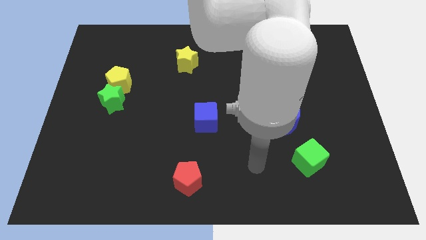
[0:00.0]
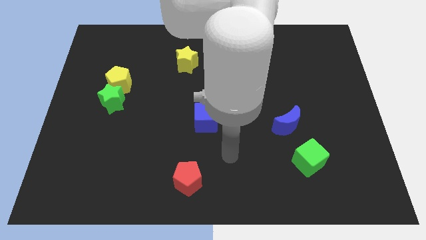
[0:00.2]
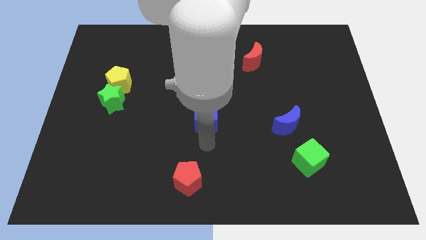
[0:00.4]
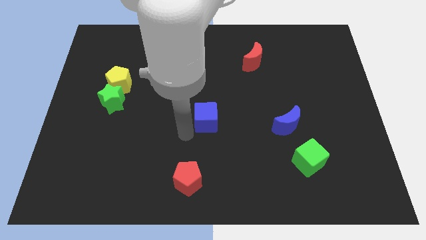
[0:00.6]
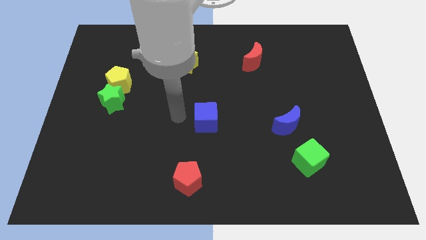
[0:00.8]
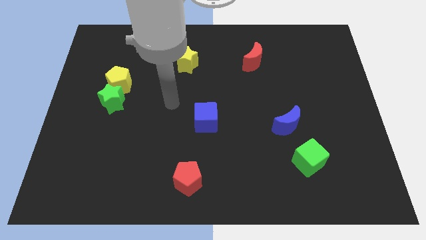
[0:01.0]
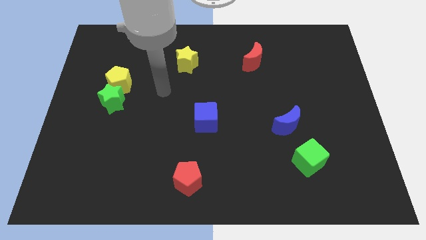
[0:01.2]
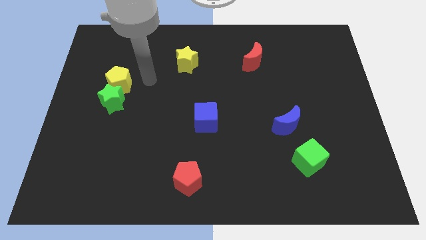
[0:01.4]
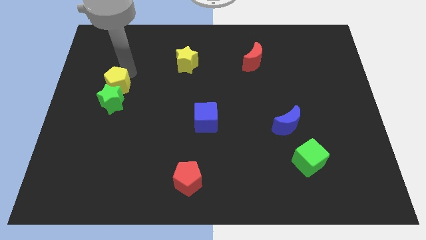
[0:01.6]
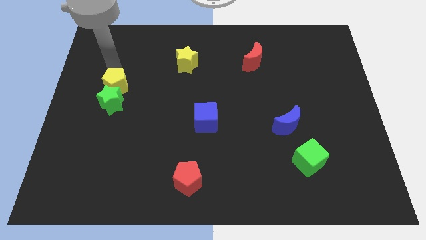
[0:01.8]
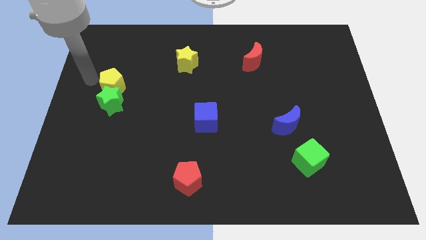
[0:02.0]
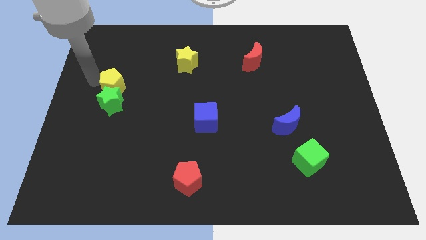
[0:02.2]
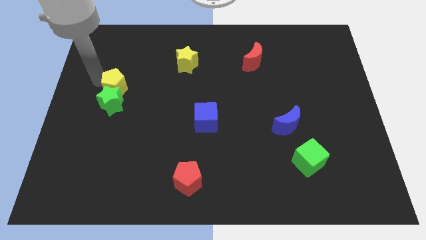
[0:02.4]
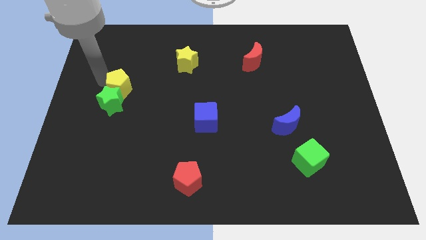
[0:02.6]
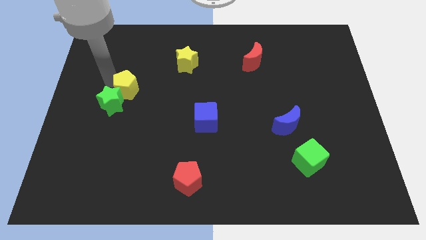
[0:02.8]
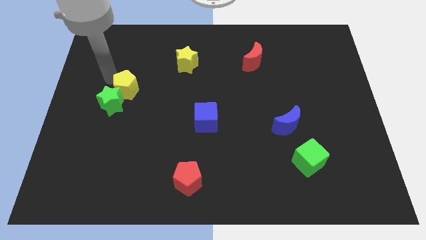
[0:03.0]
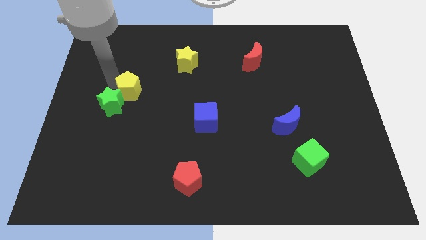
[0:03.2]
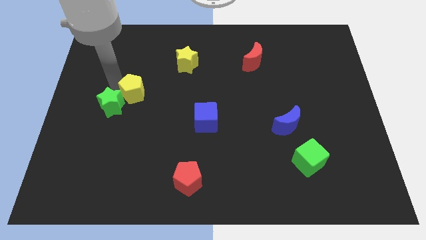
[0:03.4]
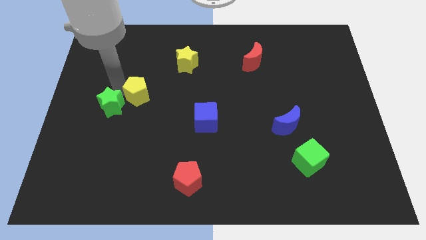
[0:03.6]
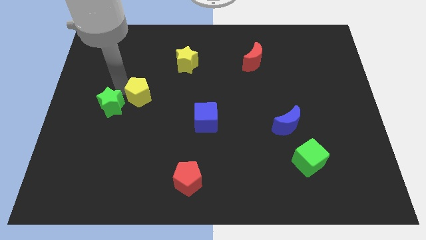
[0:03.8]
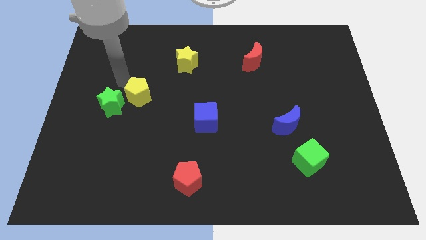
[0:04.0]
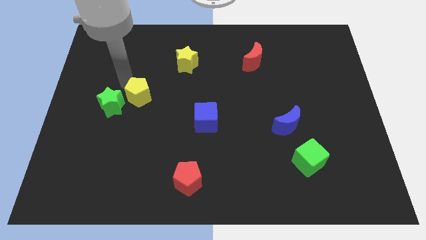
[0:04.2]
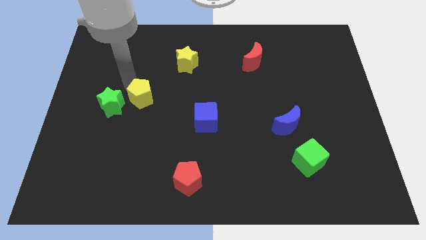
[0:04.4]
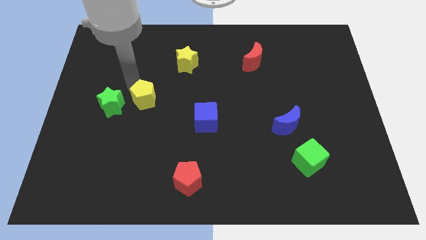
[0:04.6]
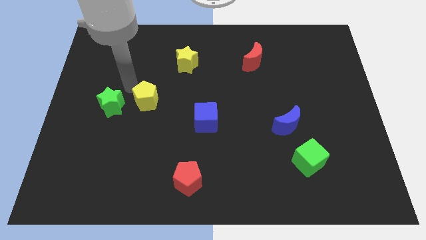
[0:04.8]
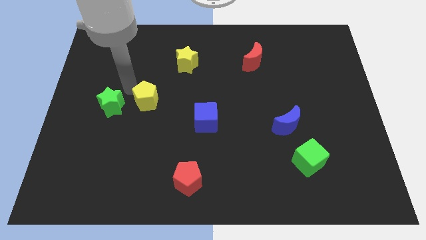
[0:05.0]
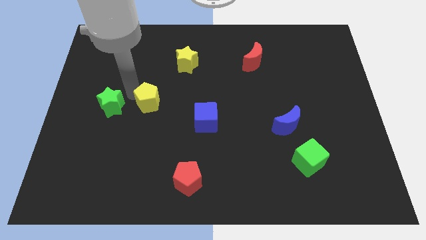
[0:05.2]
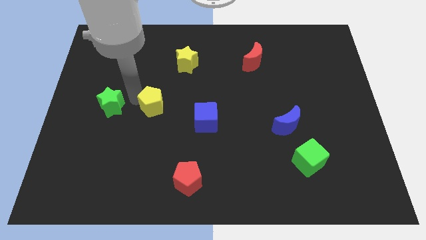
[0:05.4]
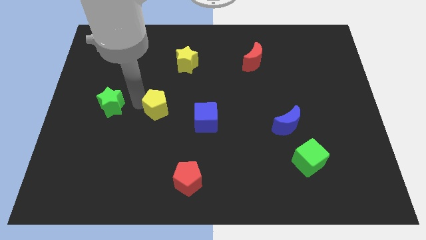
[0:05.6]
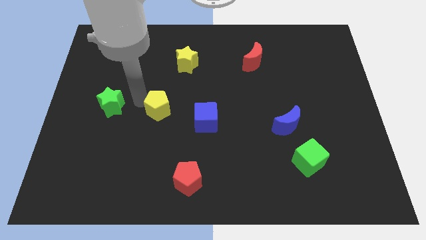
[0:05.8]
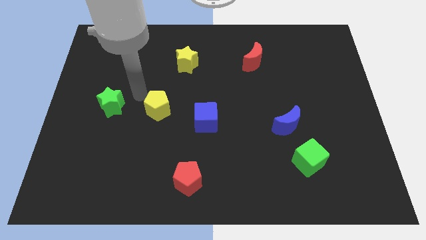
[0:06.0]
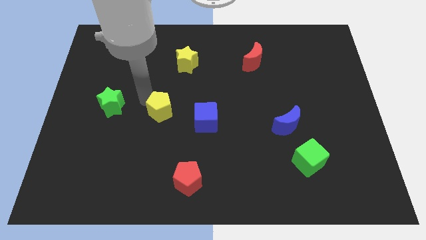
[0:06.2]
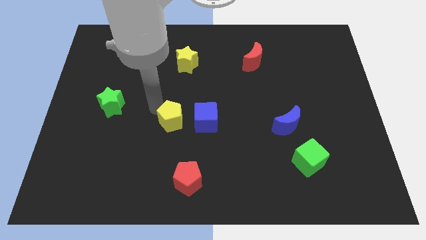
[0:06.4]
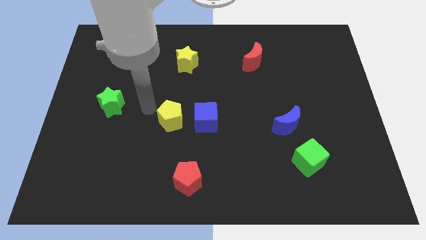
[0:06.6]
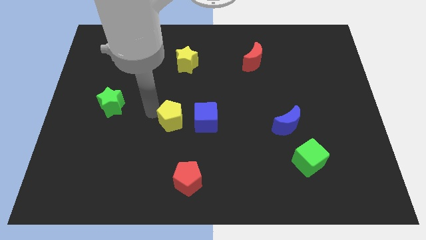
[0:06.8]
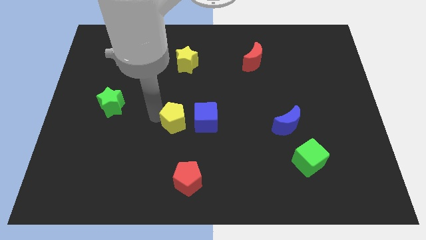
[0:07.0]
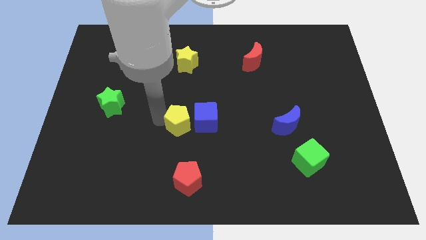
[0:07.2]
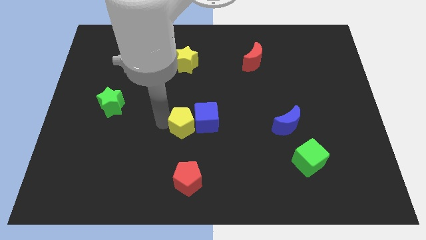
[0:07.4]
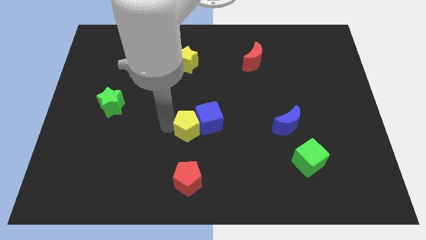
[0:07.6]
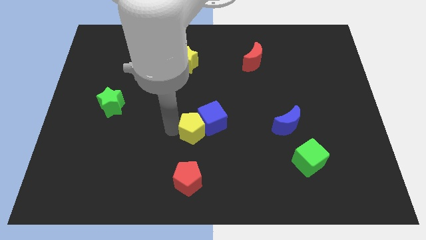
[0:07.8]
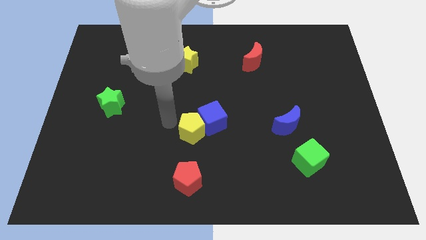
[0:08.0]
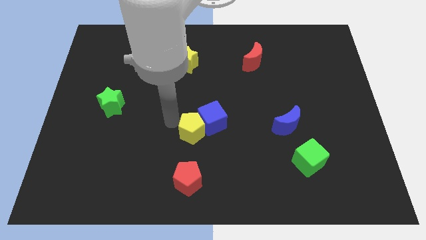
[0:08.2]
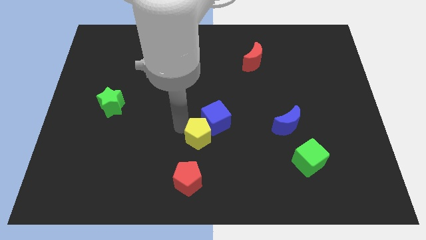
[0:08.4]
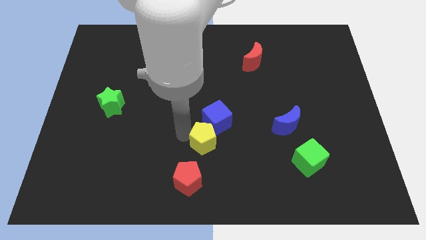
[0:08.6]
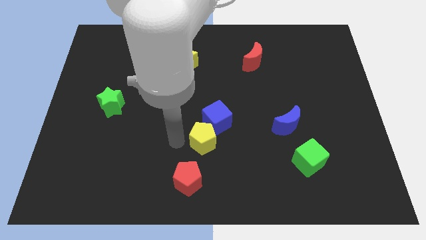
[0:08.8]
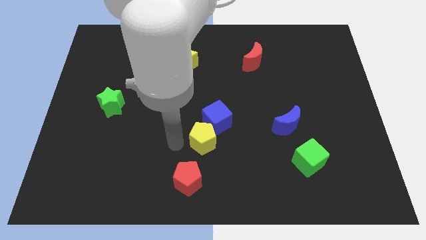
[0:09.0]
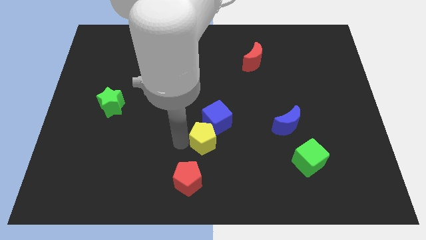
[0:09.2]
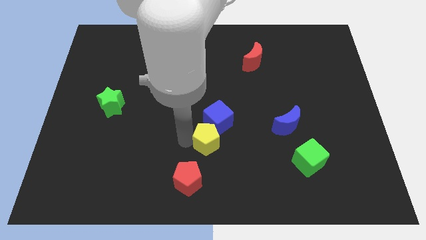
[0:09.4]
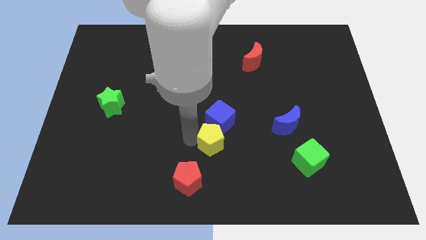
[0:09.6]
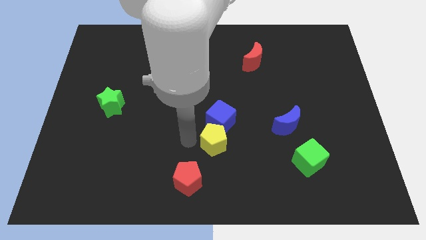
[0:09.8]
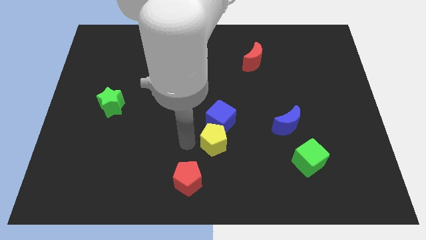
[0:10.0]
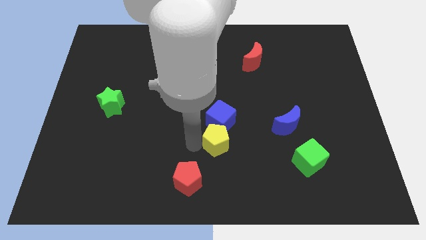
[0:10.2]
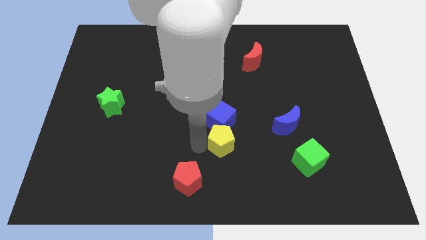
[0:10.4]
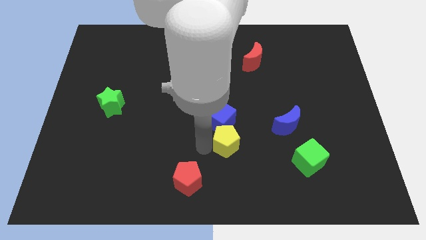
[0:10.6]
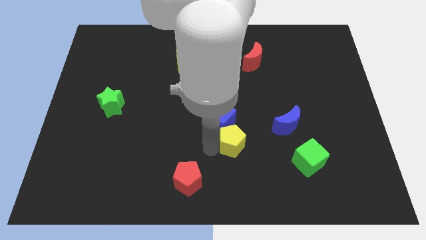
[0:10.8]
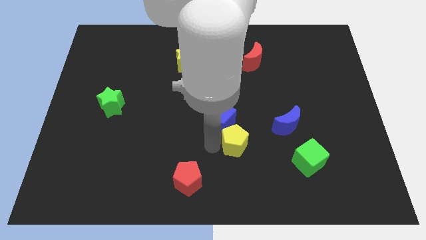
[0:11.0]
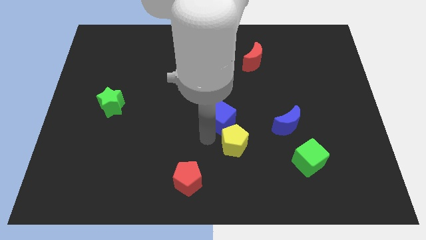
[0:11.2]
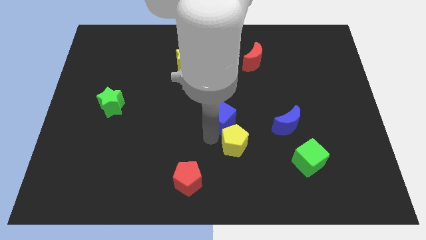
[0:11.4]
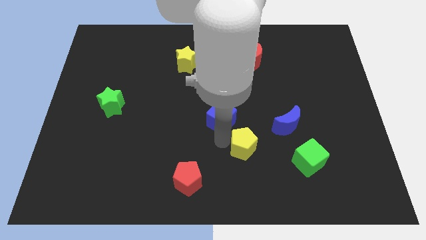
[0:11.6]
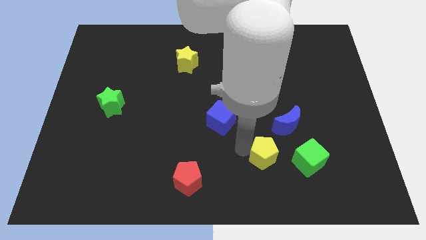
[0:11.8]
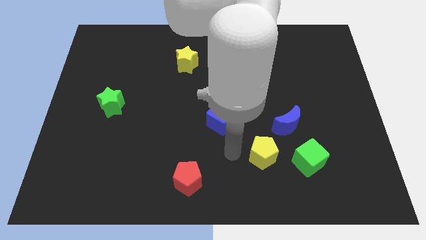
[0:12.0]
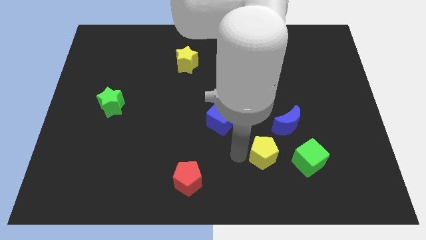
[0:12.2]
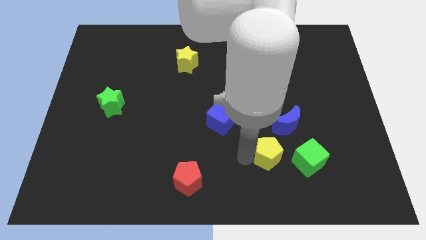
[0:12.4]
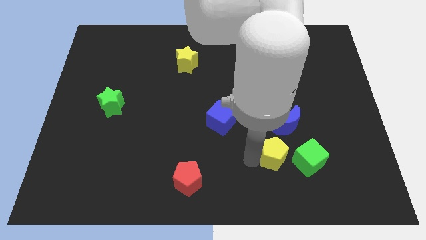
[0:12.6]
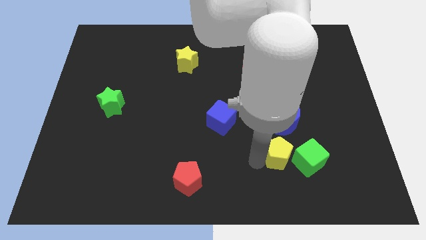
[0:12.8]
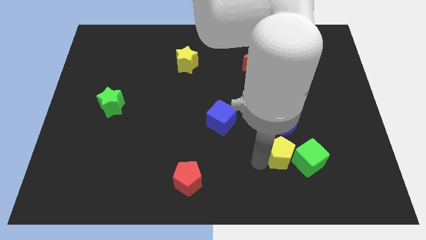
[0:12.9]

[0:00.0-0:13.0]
slide the yellow pentagon close to the green cube

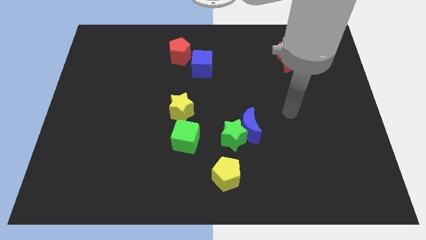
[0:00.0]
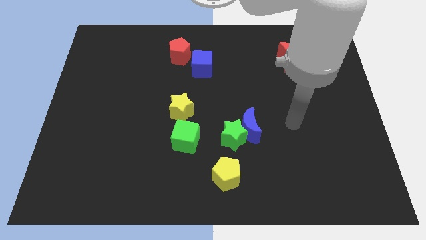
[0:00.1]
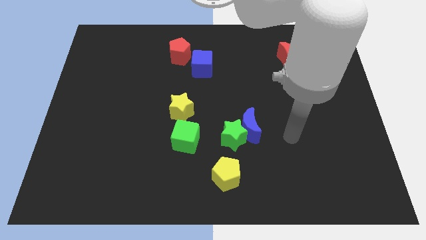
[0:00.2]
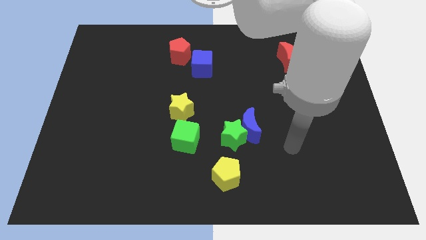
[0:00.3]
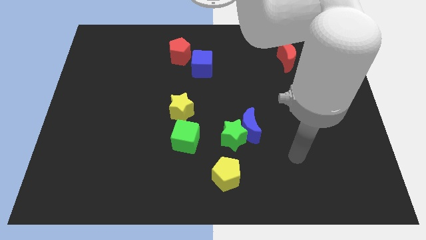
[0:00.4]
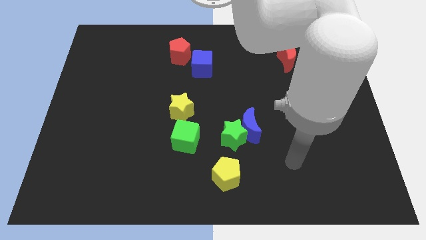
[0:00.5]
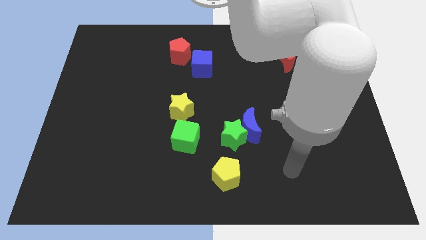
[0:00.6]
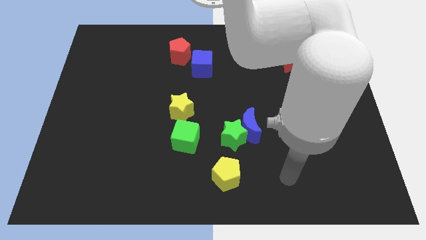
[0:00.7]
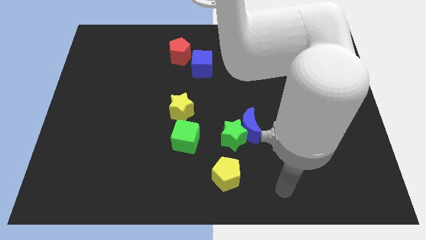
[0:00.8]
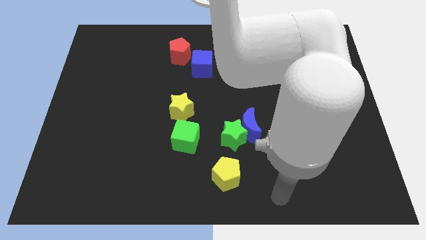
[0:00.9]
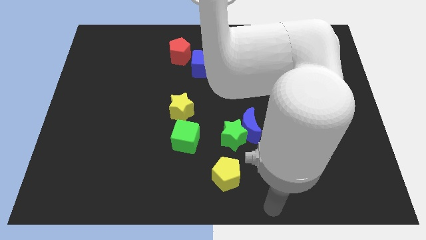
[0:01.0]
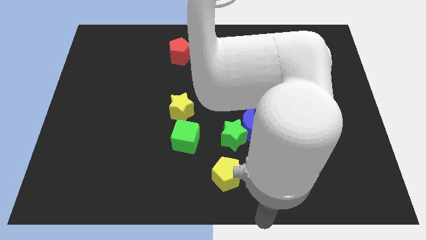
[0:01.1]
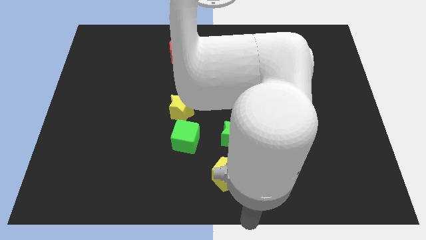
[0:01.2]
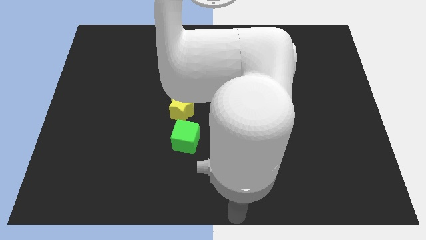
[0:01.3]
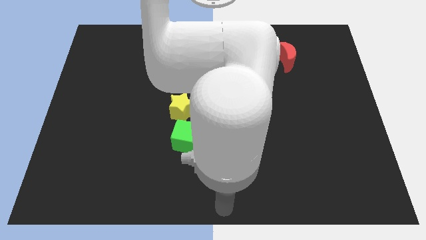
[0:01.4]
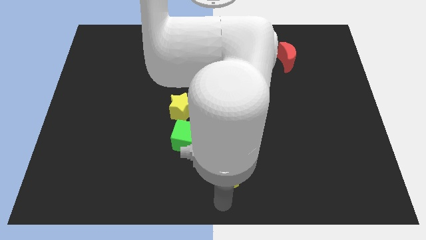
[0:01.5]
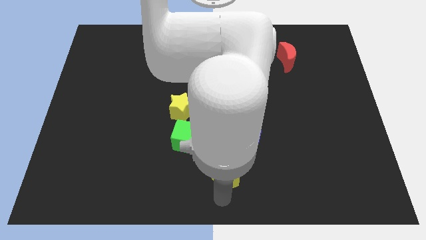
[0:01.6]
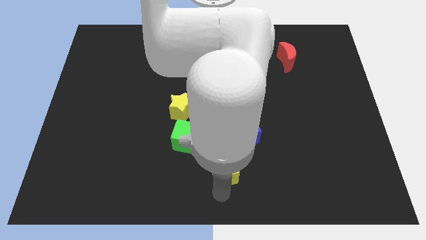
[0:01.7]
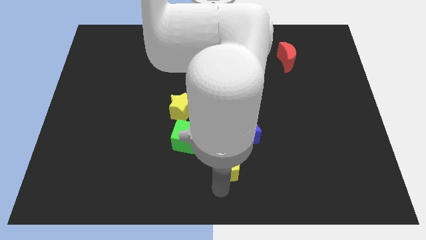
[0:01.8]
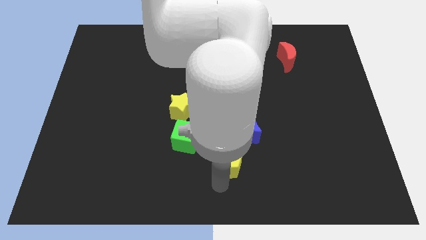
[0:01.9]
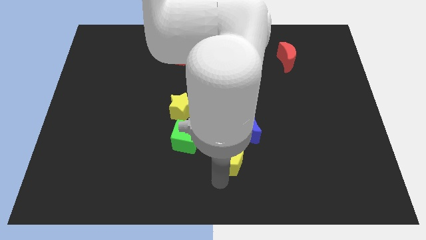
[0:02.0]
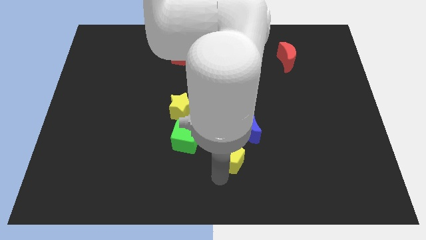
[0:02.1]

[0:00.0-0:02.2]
move the yellow pentagon next to the green star
